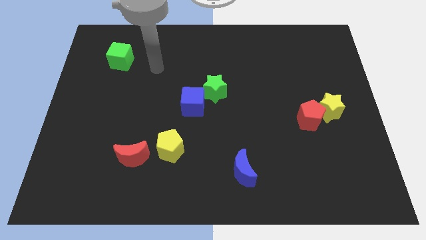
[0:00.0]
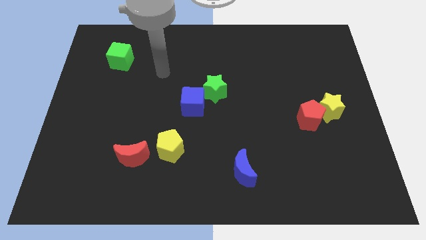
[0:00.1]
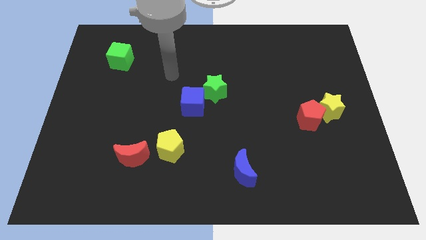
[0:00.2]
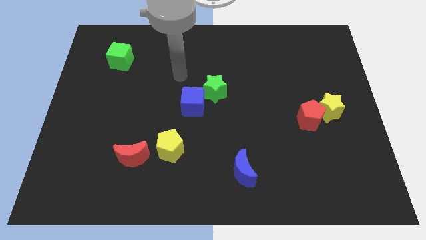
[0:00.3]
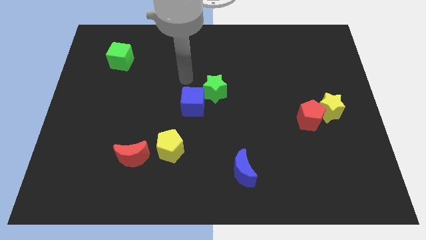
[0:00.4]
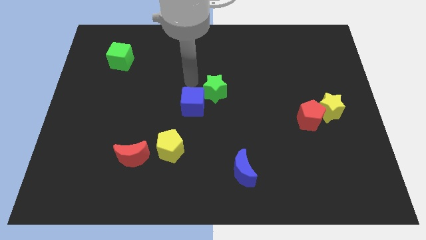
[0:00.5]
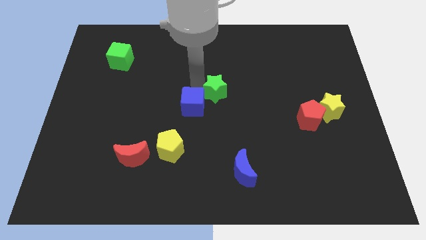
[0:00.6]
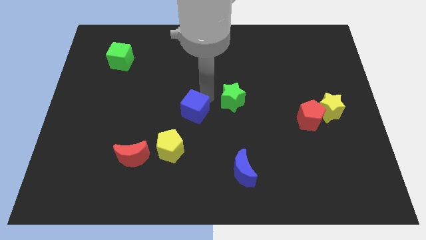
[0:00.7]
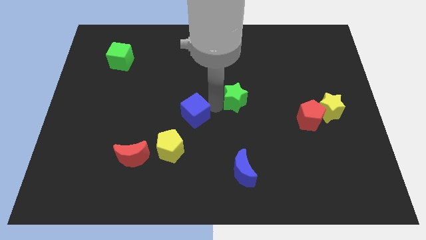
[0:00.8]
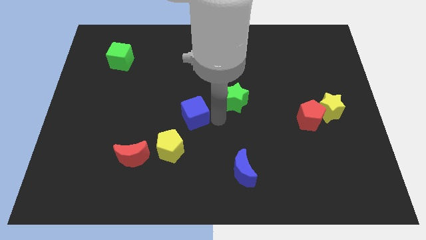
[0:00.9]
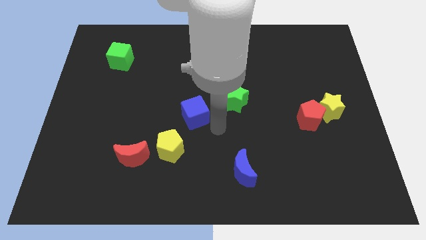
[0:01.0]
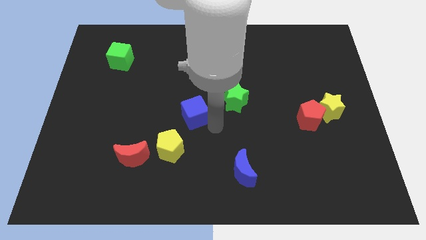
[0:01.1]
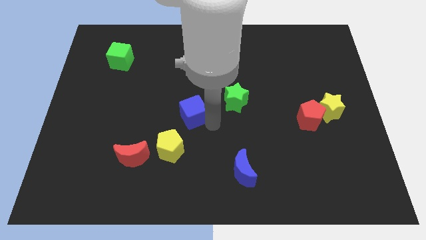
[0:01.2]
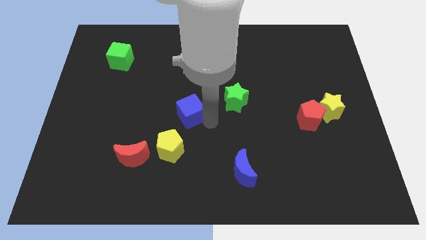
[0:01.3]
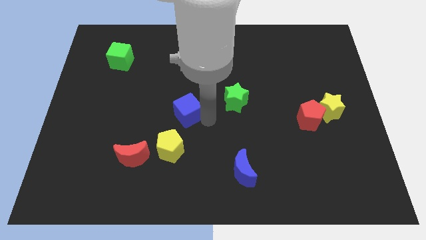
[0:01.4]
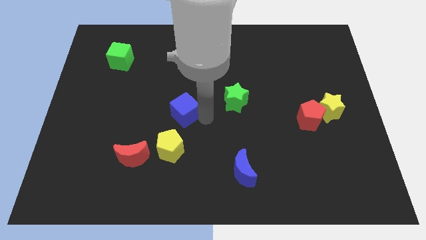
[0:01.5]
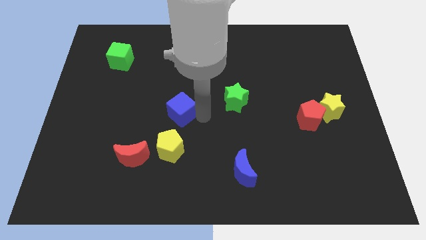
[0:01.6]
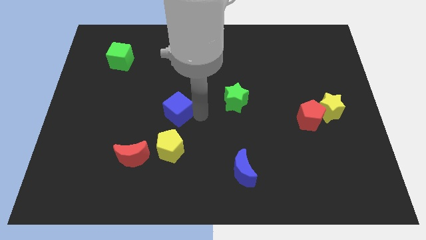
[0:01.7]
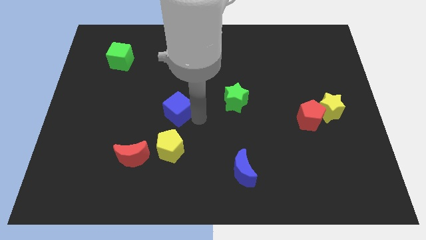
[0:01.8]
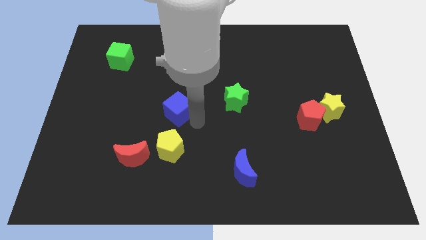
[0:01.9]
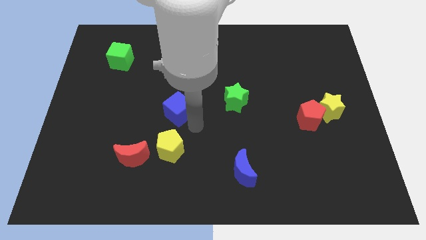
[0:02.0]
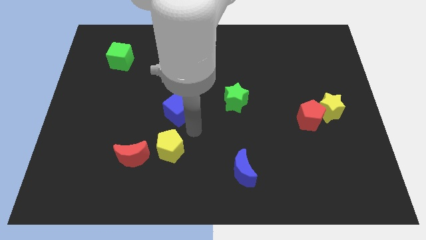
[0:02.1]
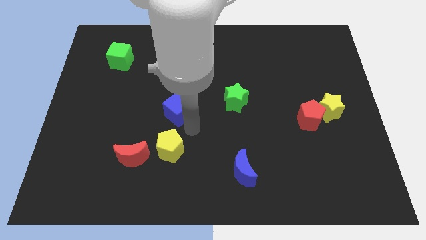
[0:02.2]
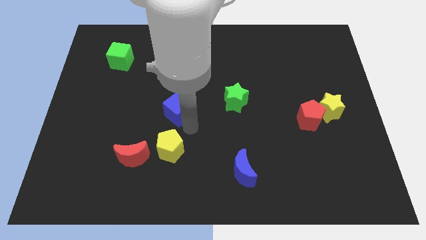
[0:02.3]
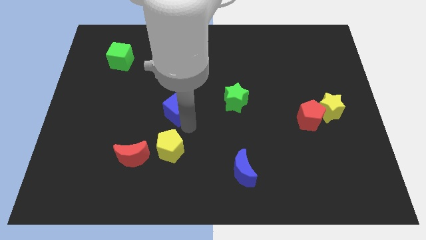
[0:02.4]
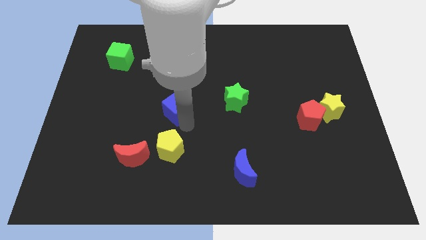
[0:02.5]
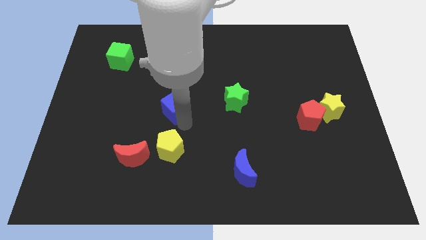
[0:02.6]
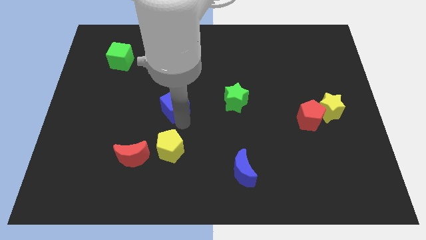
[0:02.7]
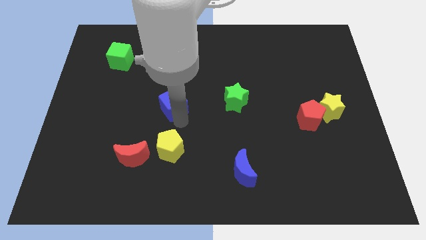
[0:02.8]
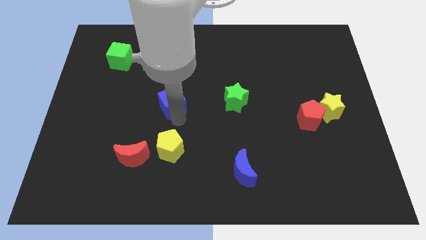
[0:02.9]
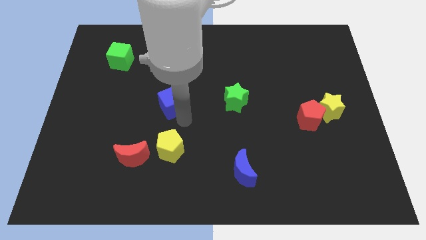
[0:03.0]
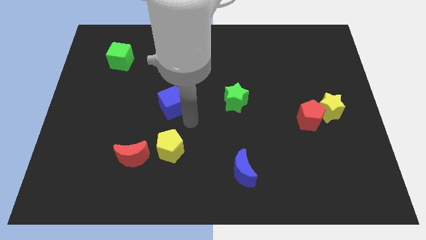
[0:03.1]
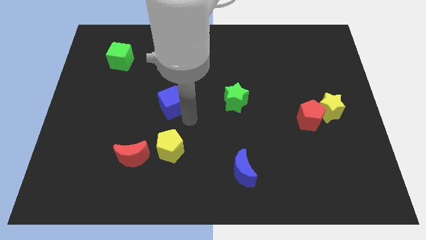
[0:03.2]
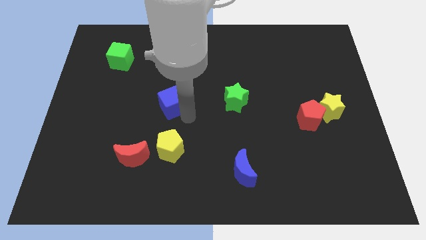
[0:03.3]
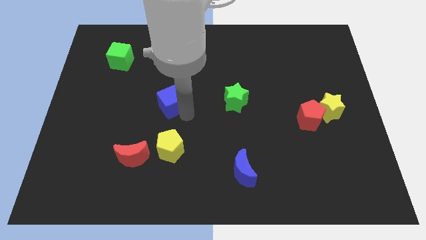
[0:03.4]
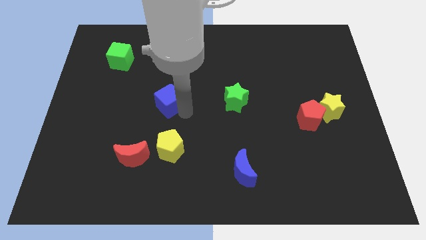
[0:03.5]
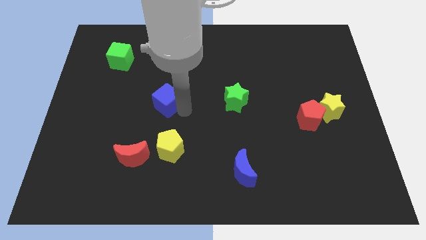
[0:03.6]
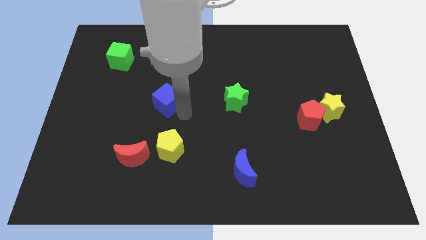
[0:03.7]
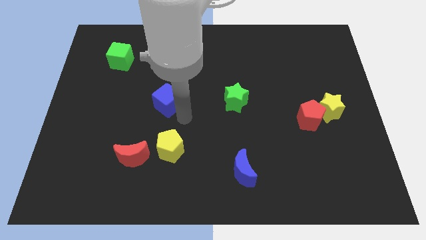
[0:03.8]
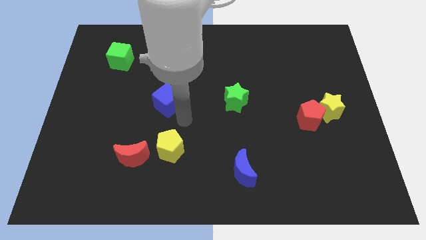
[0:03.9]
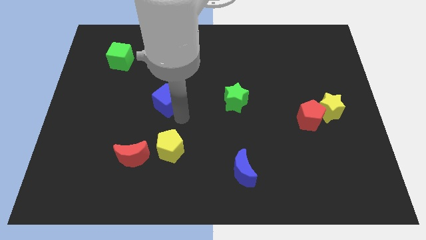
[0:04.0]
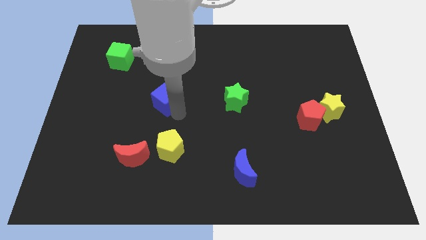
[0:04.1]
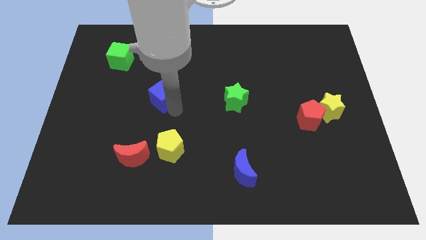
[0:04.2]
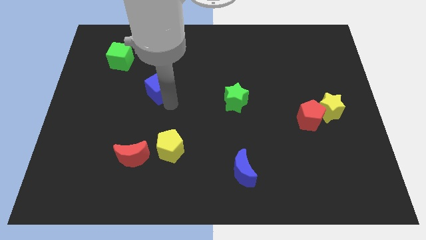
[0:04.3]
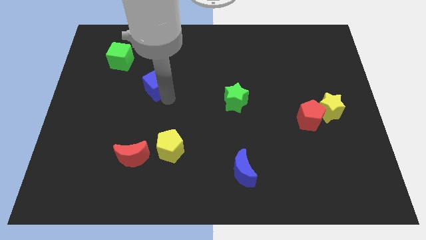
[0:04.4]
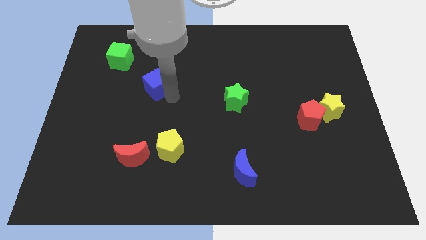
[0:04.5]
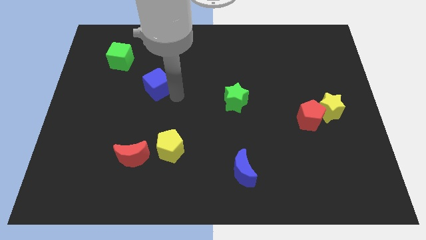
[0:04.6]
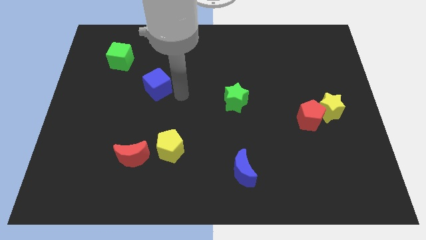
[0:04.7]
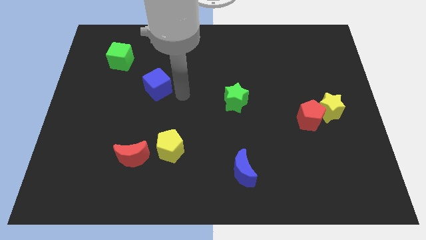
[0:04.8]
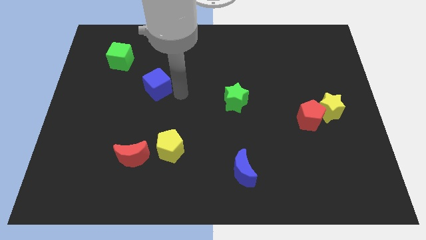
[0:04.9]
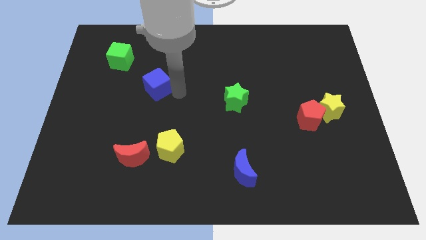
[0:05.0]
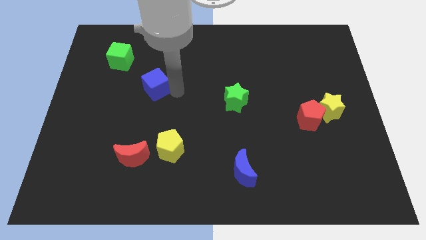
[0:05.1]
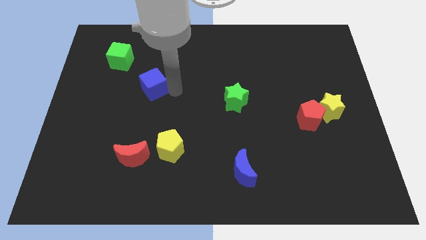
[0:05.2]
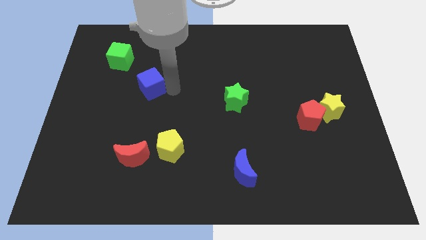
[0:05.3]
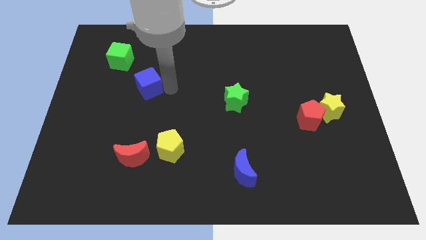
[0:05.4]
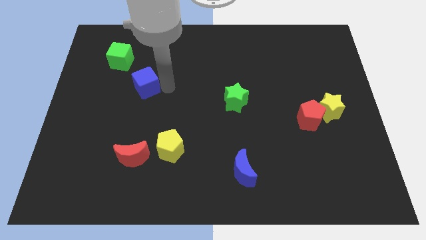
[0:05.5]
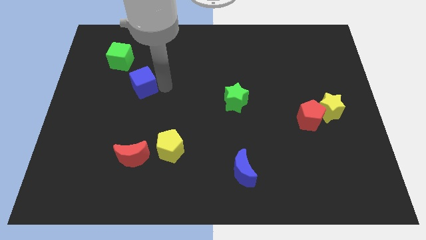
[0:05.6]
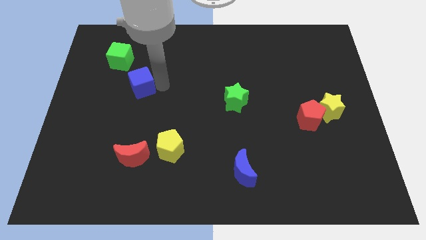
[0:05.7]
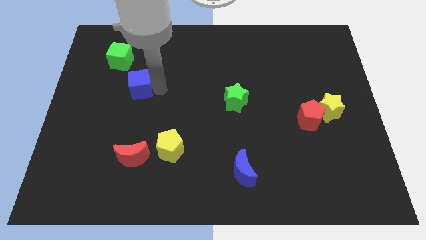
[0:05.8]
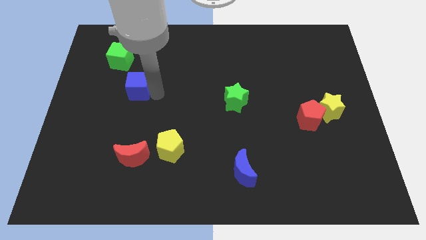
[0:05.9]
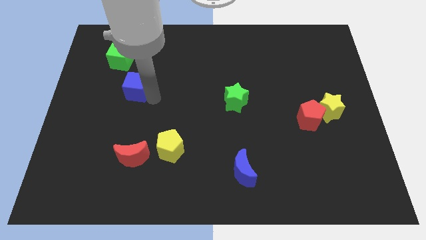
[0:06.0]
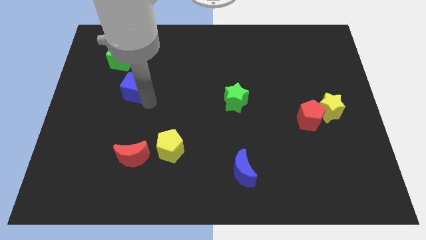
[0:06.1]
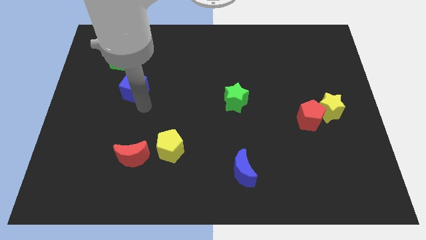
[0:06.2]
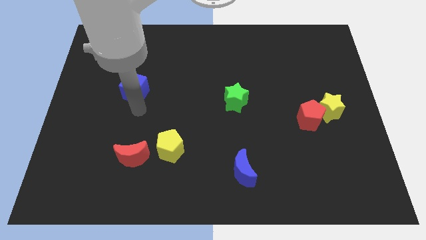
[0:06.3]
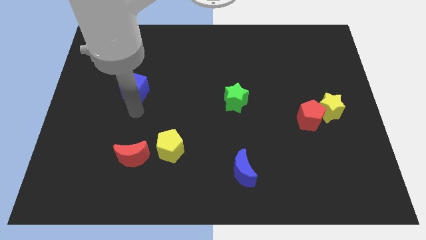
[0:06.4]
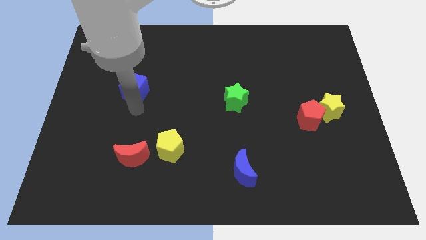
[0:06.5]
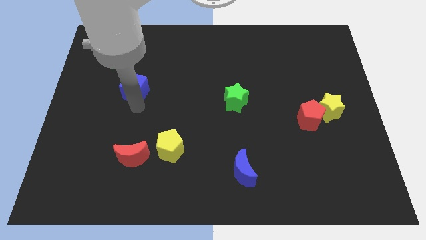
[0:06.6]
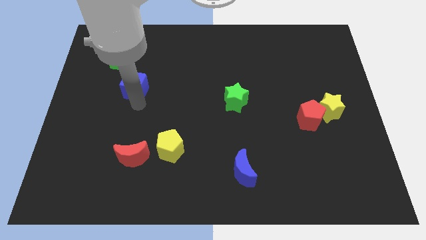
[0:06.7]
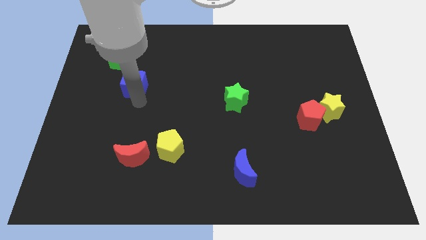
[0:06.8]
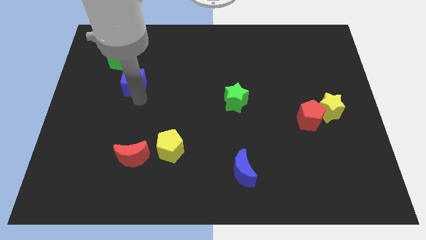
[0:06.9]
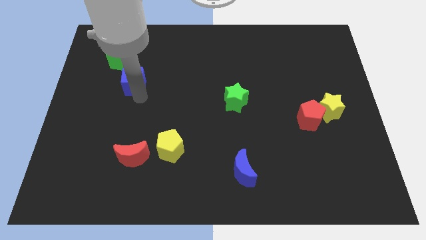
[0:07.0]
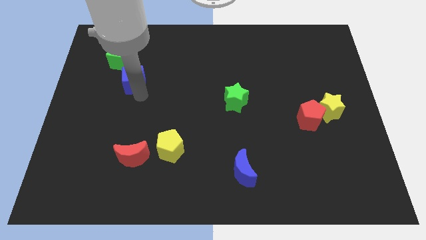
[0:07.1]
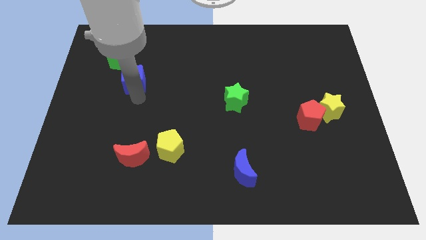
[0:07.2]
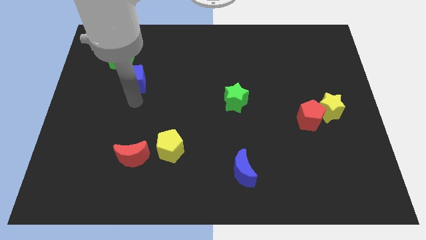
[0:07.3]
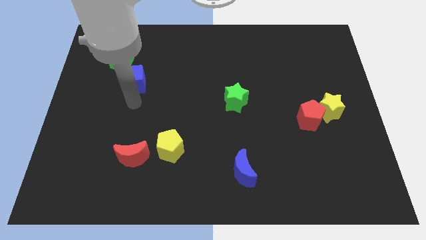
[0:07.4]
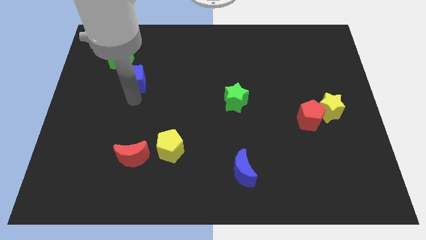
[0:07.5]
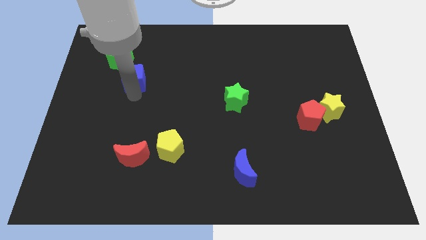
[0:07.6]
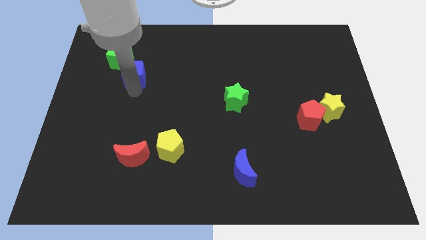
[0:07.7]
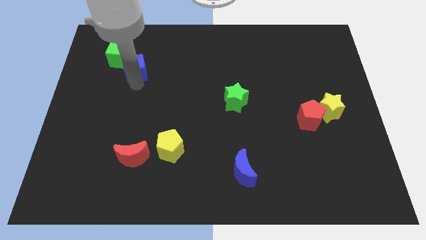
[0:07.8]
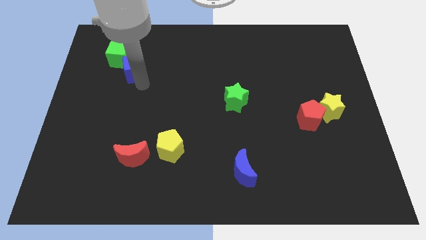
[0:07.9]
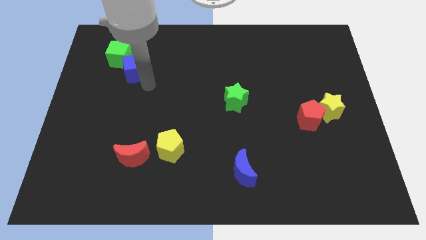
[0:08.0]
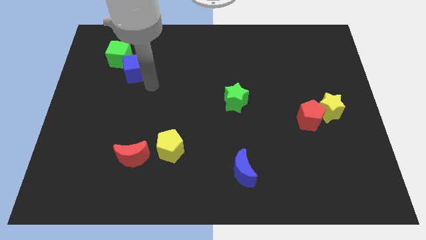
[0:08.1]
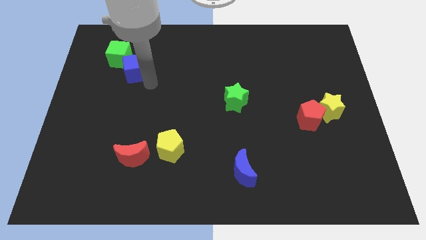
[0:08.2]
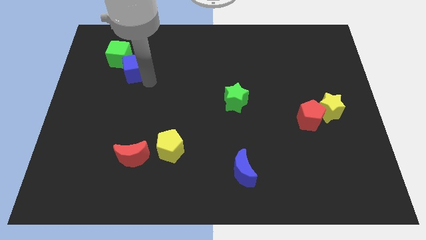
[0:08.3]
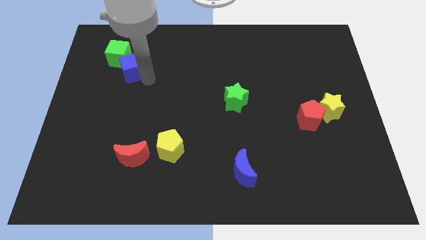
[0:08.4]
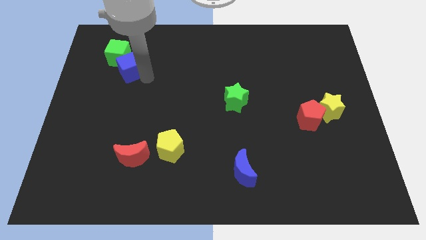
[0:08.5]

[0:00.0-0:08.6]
push the blue cube close to the green cube
